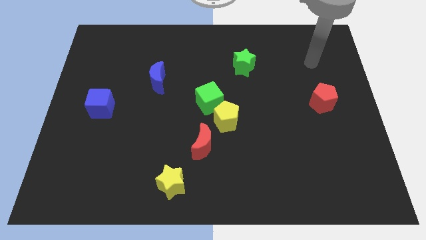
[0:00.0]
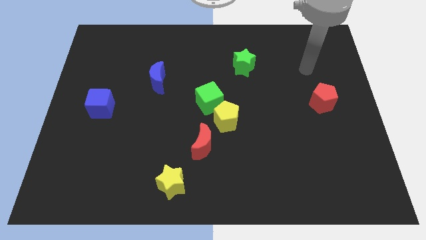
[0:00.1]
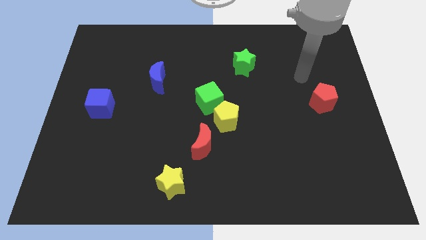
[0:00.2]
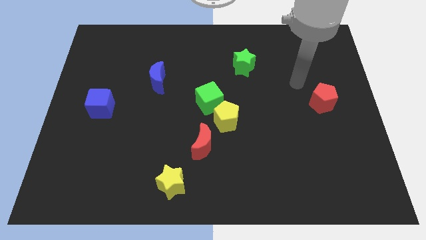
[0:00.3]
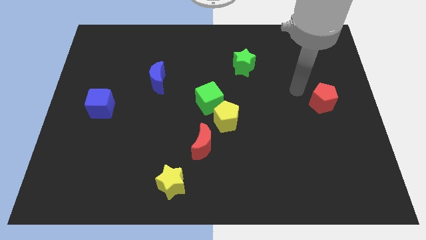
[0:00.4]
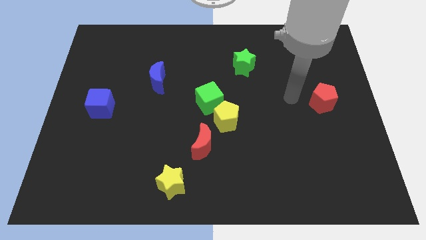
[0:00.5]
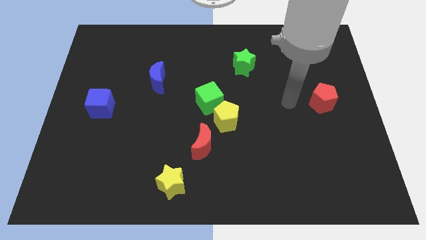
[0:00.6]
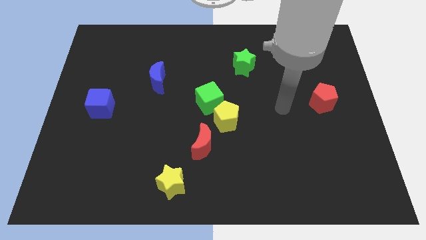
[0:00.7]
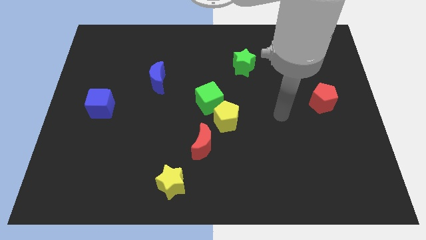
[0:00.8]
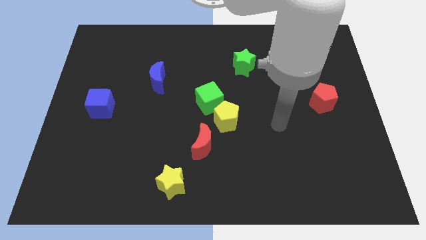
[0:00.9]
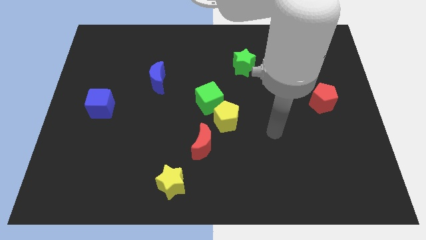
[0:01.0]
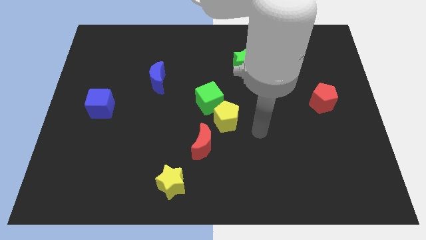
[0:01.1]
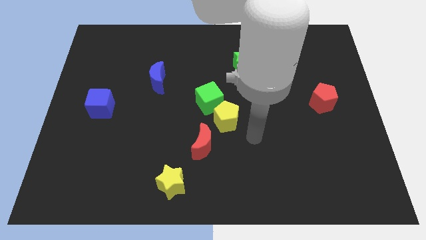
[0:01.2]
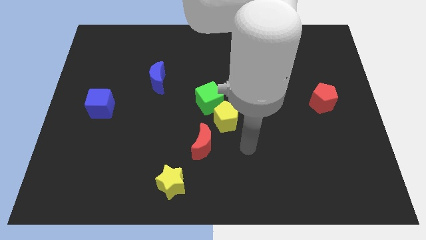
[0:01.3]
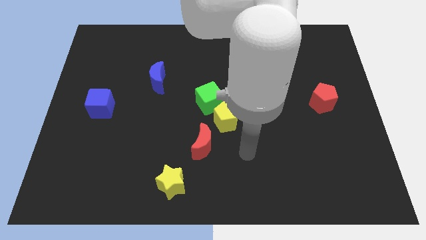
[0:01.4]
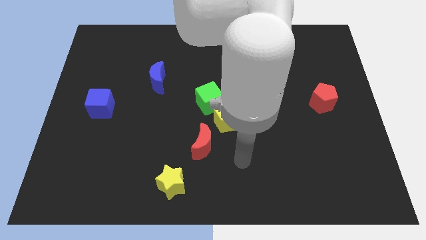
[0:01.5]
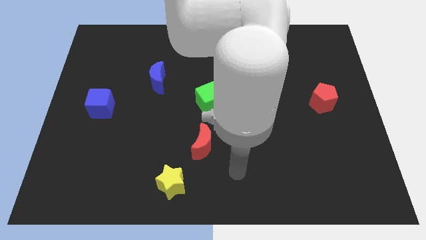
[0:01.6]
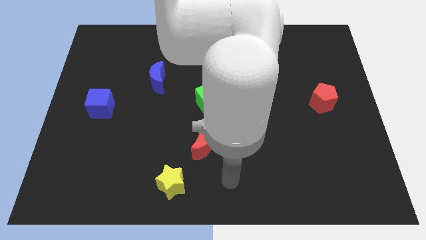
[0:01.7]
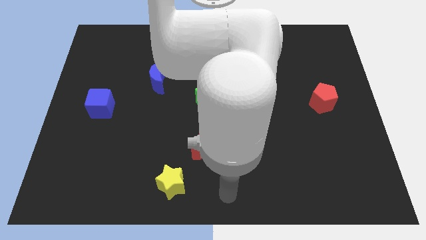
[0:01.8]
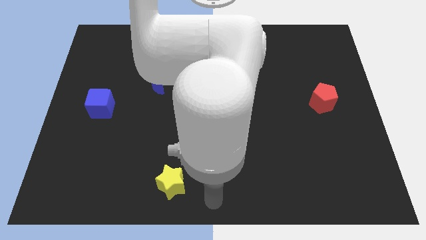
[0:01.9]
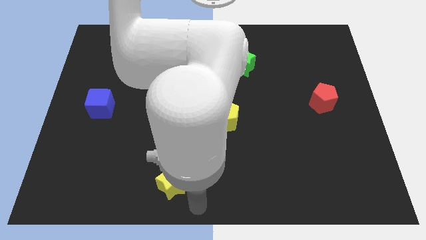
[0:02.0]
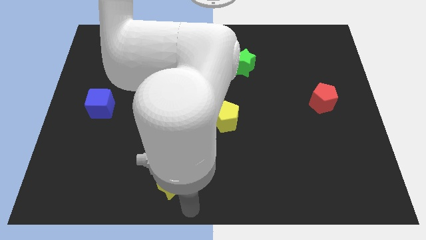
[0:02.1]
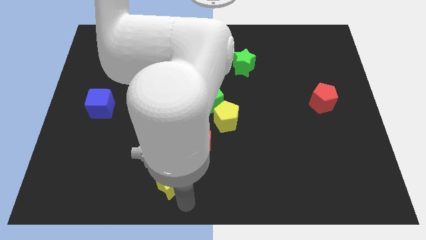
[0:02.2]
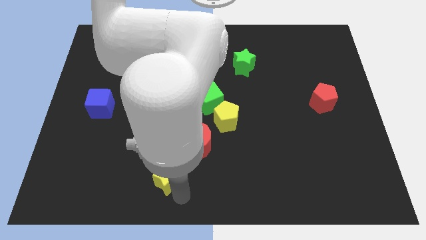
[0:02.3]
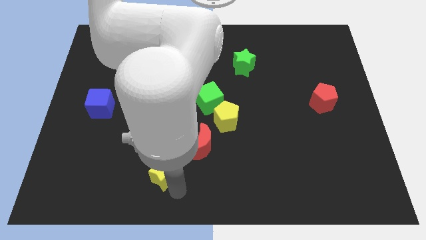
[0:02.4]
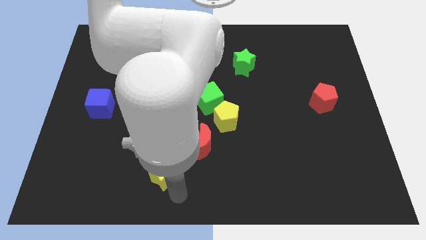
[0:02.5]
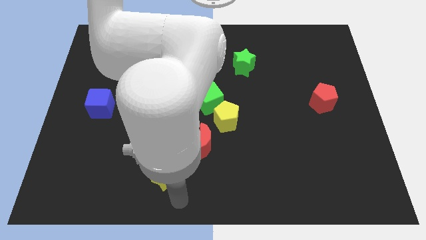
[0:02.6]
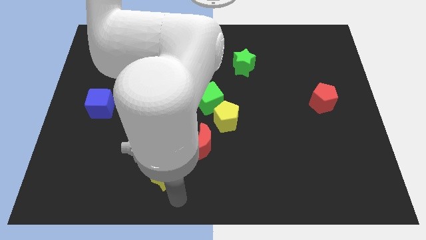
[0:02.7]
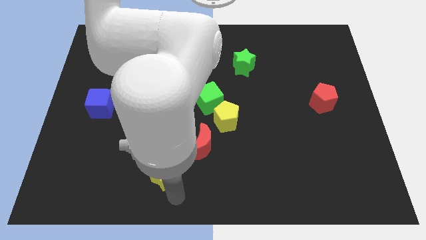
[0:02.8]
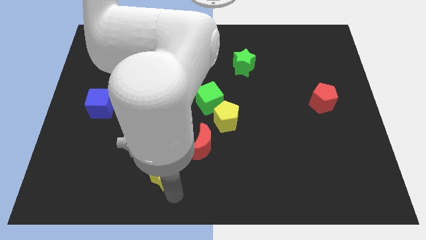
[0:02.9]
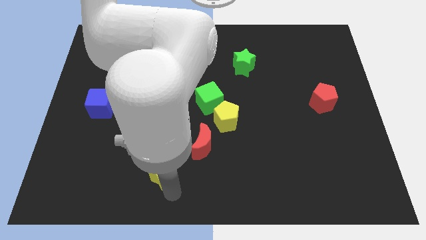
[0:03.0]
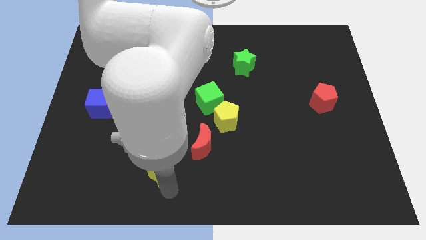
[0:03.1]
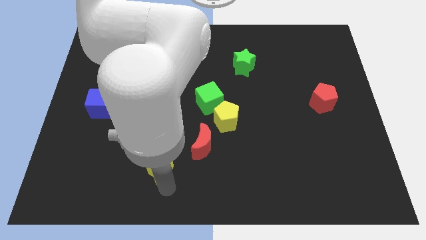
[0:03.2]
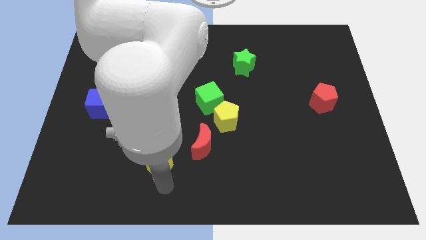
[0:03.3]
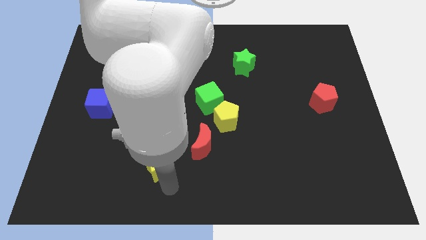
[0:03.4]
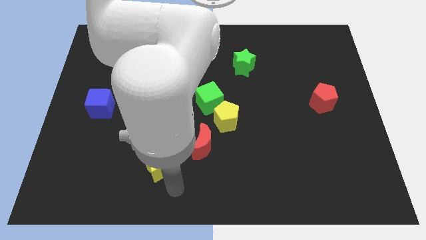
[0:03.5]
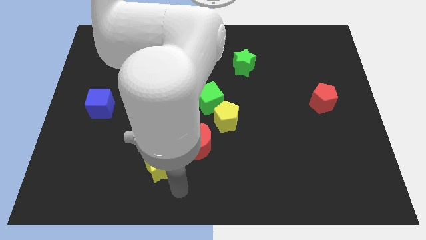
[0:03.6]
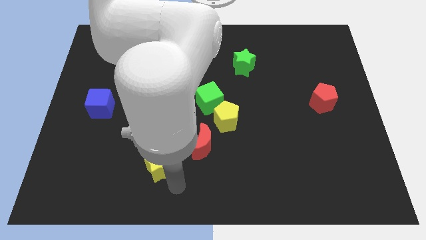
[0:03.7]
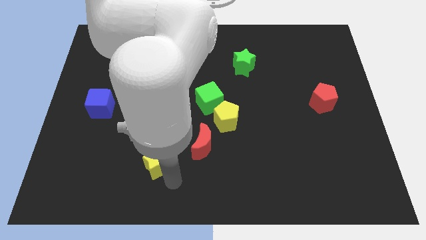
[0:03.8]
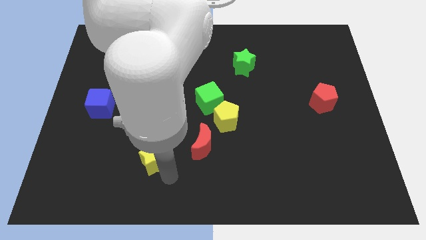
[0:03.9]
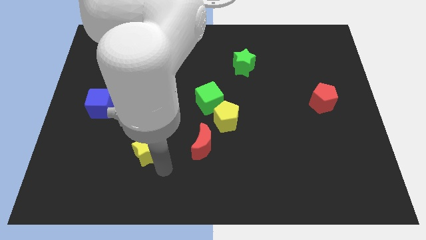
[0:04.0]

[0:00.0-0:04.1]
slide the yellow star a bit diagonally up and to the left

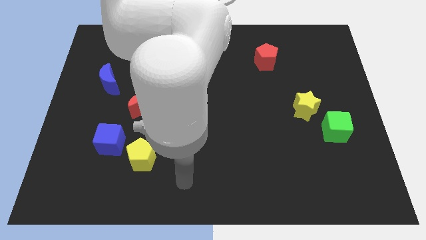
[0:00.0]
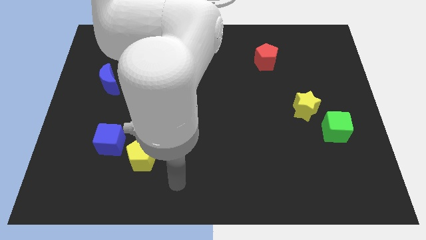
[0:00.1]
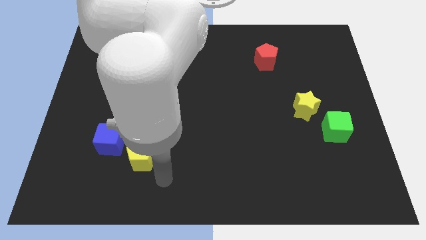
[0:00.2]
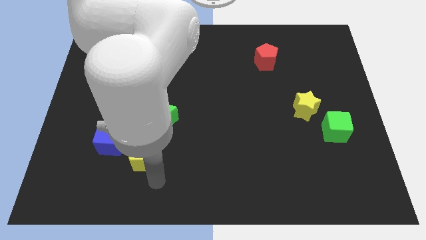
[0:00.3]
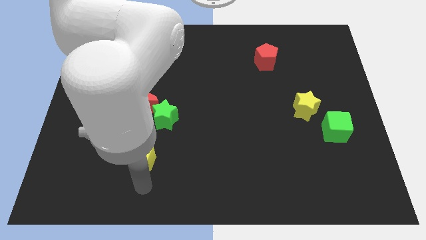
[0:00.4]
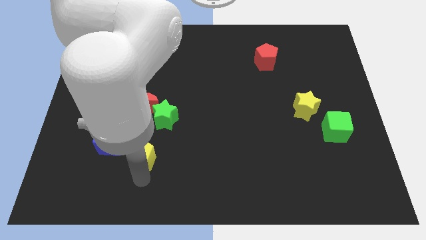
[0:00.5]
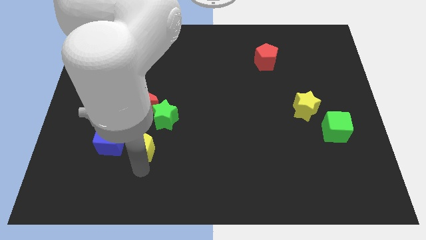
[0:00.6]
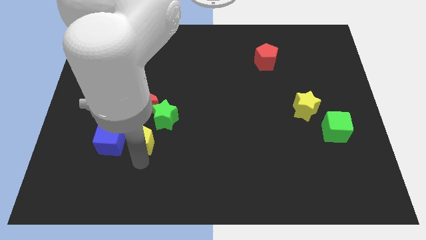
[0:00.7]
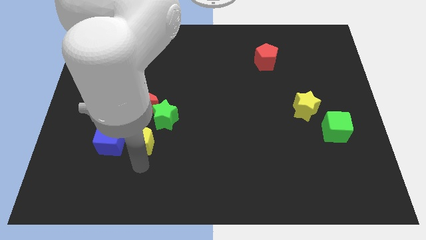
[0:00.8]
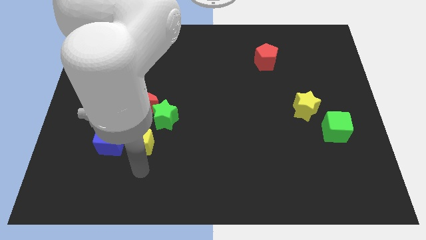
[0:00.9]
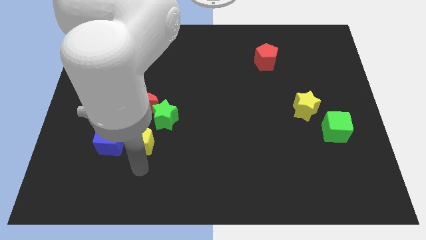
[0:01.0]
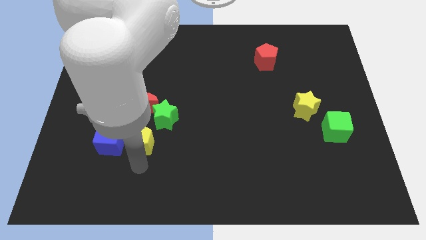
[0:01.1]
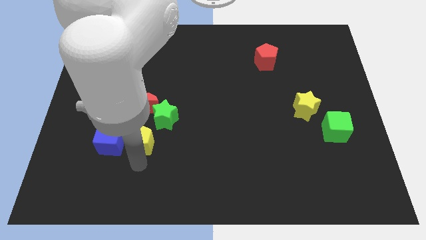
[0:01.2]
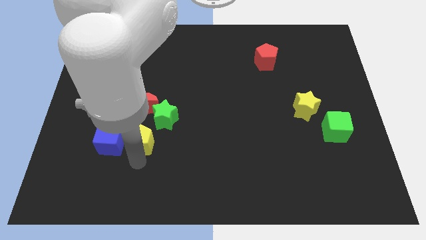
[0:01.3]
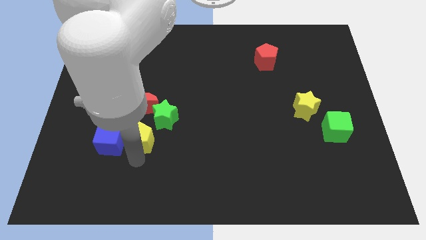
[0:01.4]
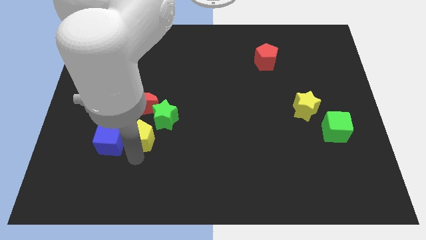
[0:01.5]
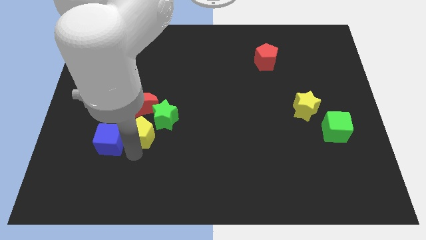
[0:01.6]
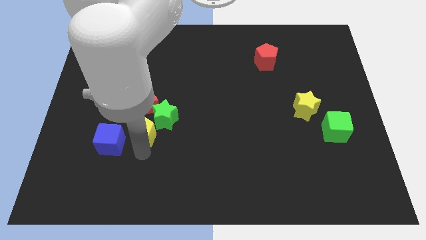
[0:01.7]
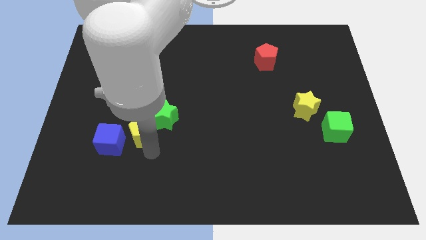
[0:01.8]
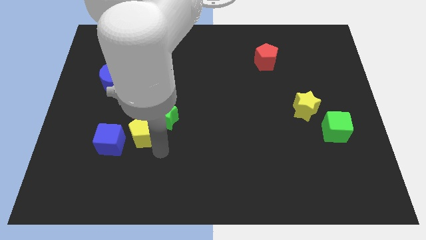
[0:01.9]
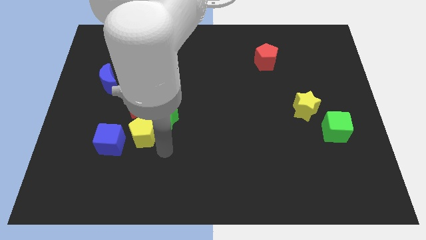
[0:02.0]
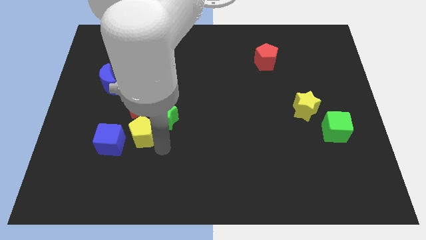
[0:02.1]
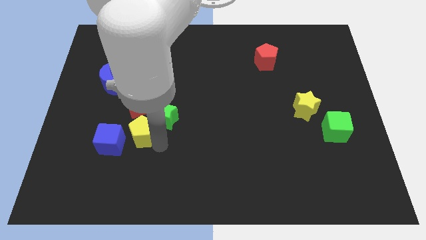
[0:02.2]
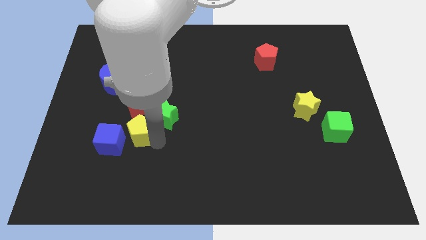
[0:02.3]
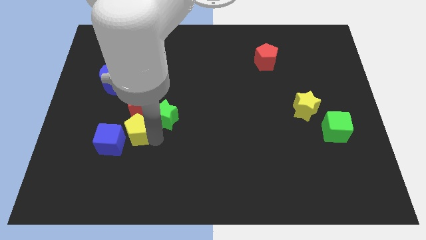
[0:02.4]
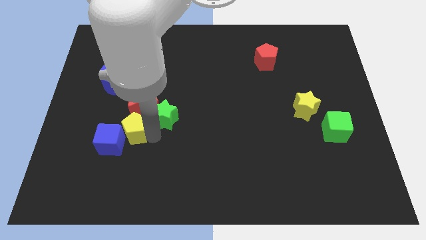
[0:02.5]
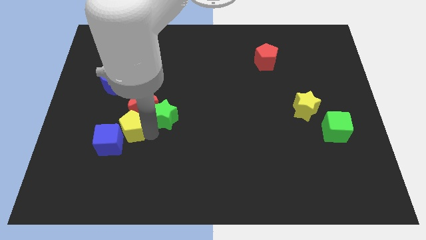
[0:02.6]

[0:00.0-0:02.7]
slightly push the yellow pentagon up and left

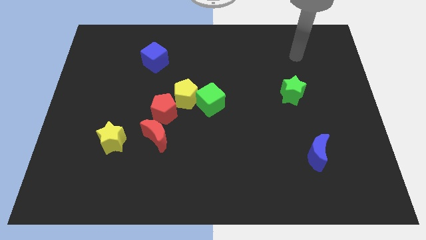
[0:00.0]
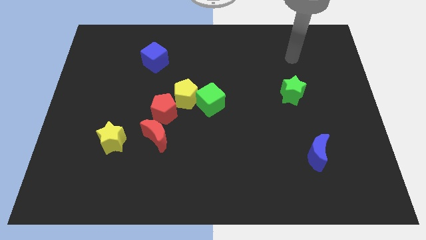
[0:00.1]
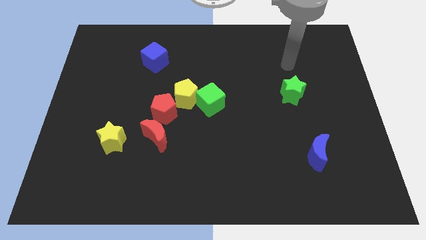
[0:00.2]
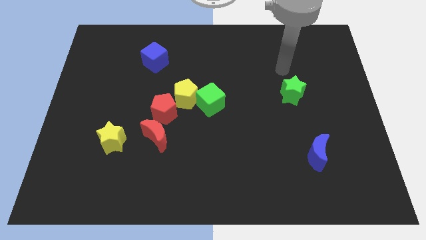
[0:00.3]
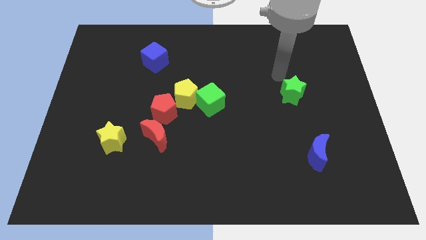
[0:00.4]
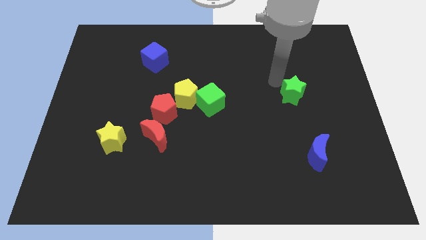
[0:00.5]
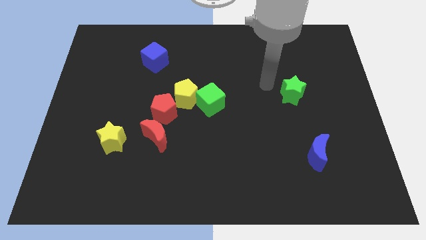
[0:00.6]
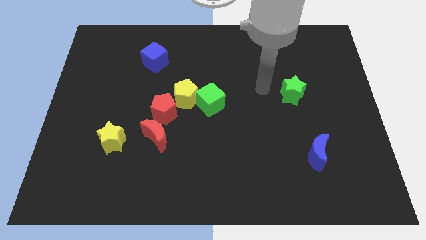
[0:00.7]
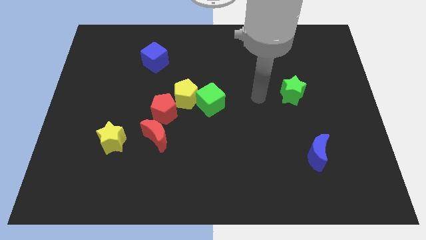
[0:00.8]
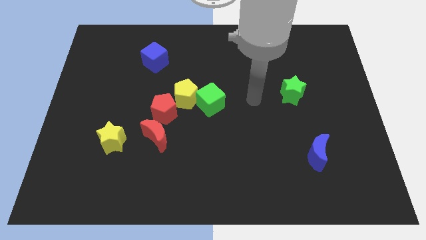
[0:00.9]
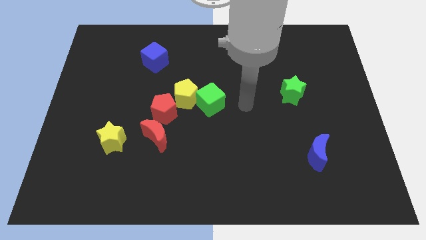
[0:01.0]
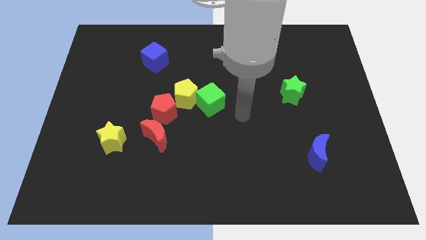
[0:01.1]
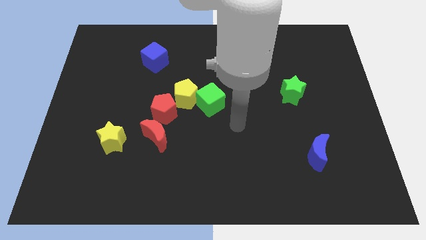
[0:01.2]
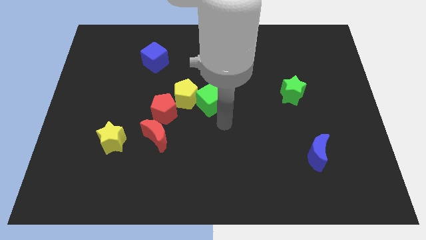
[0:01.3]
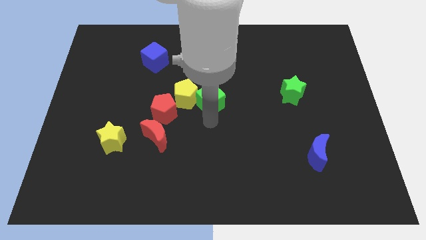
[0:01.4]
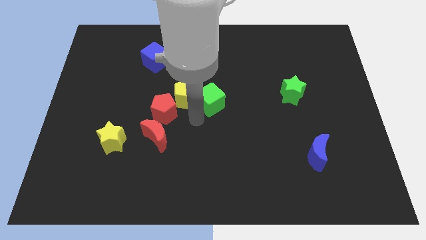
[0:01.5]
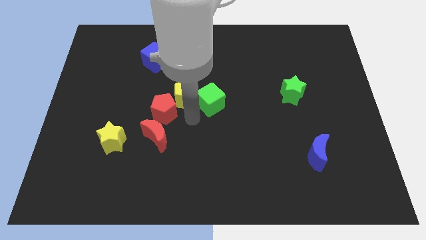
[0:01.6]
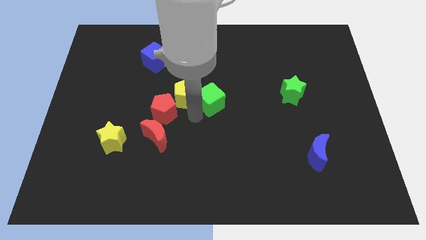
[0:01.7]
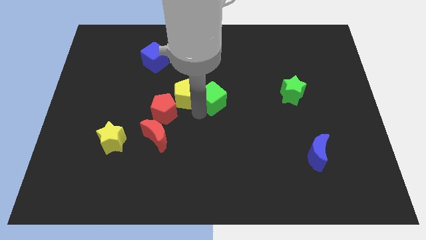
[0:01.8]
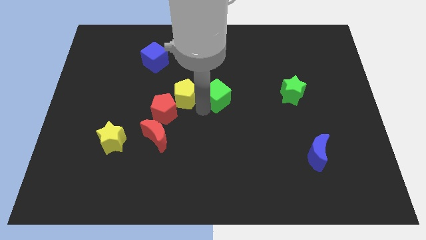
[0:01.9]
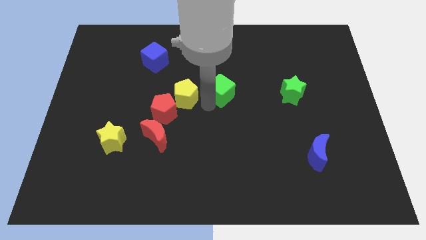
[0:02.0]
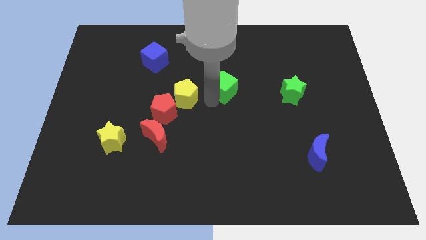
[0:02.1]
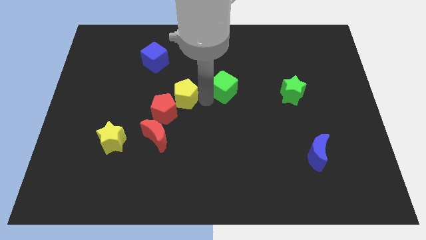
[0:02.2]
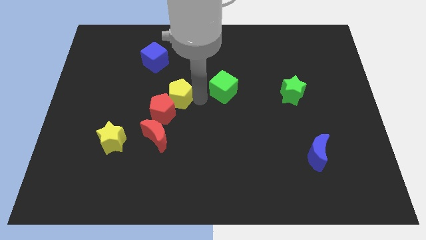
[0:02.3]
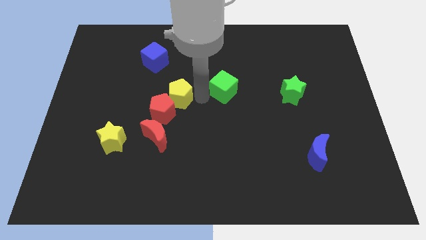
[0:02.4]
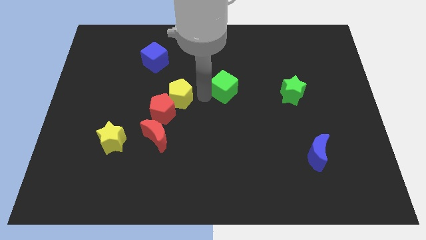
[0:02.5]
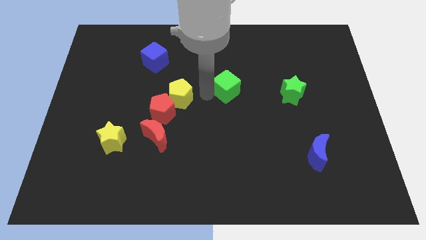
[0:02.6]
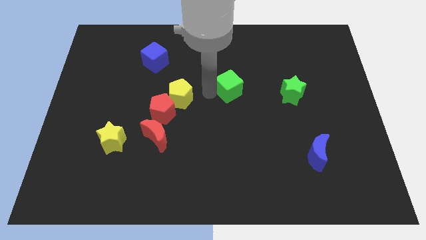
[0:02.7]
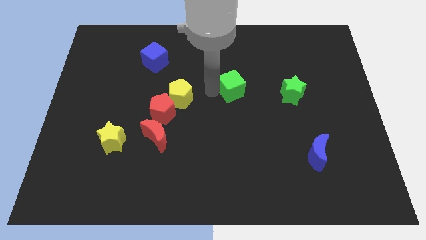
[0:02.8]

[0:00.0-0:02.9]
slightly push the green cube up and right diagonally
